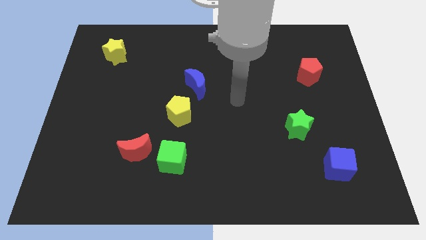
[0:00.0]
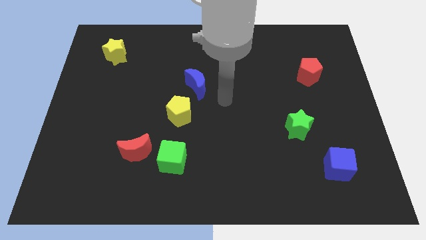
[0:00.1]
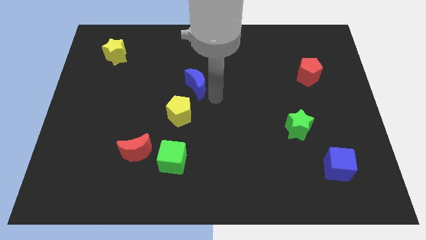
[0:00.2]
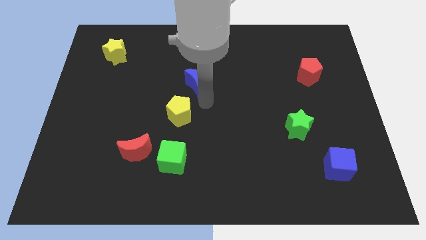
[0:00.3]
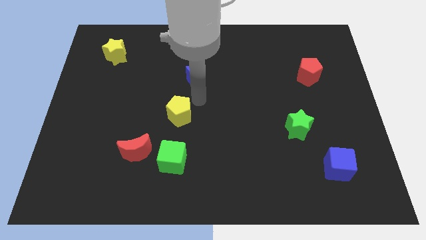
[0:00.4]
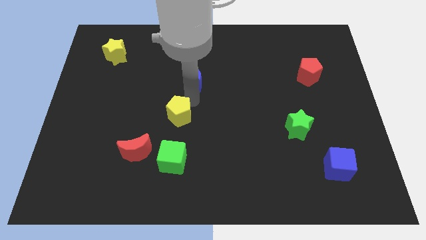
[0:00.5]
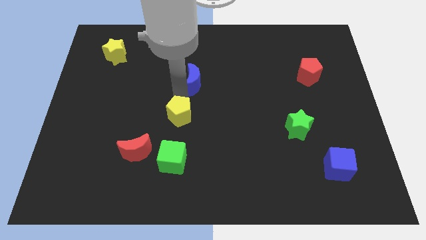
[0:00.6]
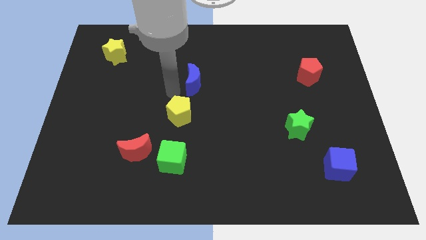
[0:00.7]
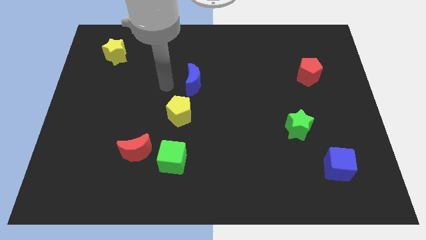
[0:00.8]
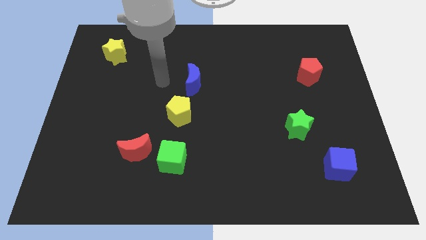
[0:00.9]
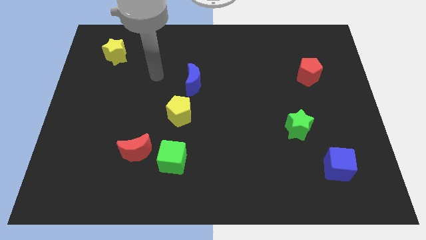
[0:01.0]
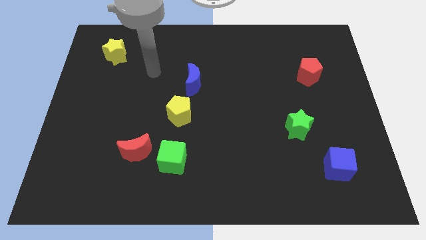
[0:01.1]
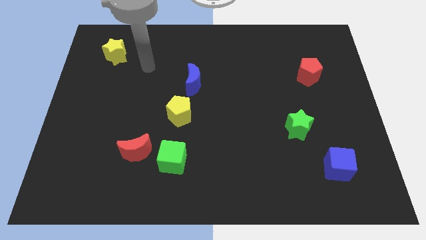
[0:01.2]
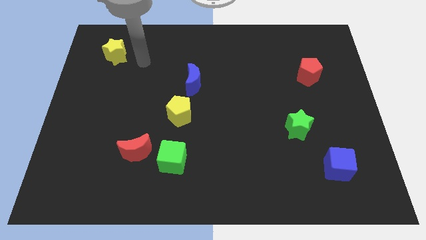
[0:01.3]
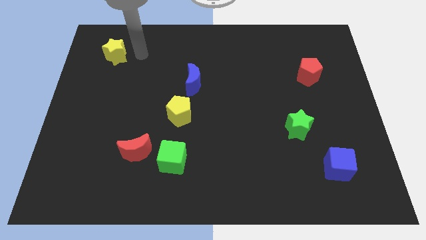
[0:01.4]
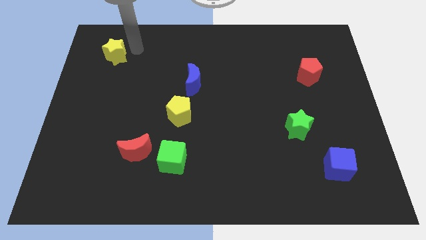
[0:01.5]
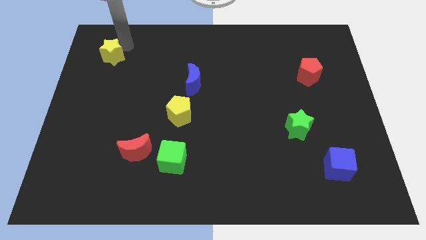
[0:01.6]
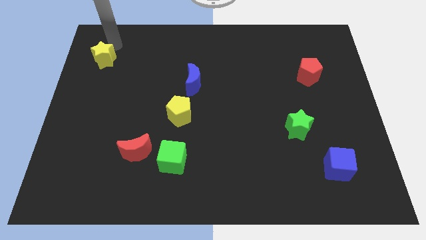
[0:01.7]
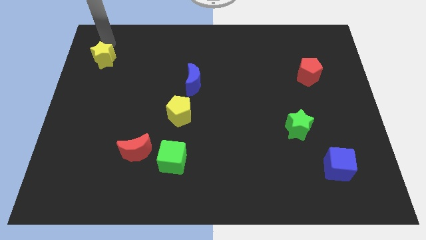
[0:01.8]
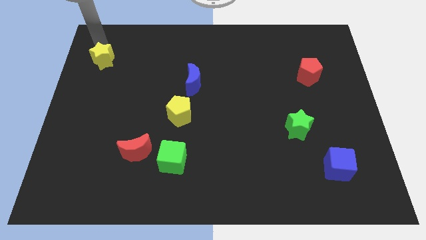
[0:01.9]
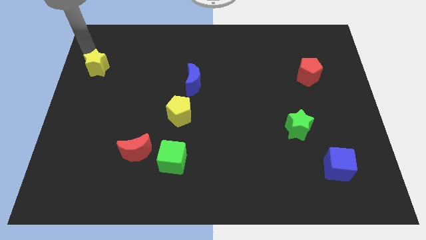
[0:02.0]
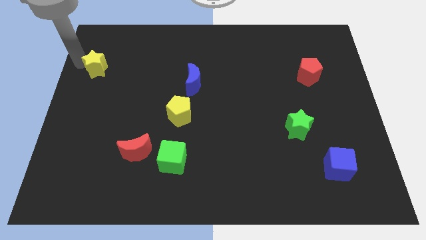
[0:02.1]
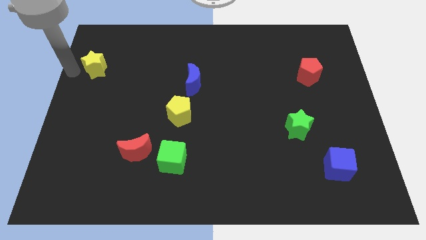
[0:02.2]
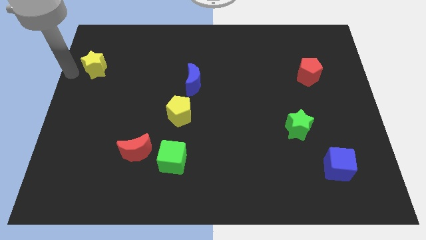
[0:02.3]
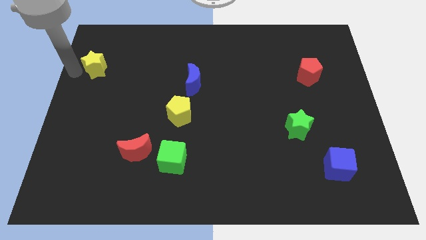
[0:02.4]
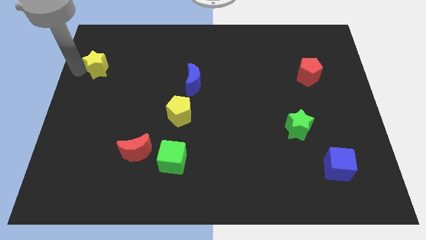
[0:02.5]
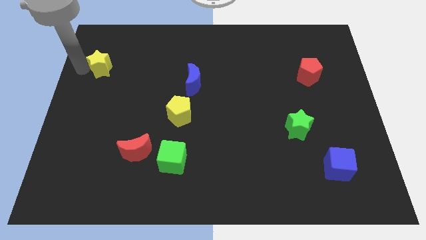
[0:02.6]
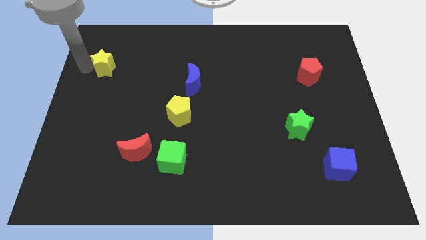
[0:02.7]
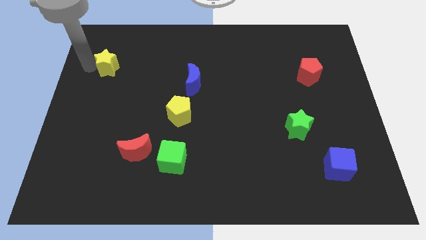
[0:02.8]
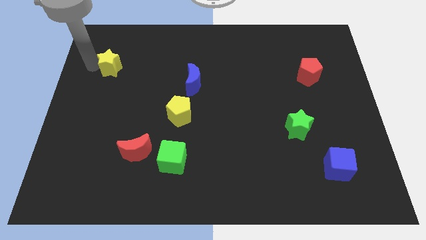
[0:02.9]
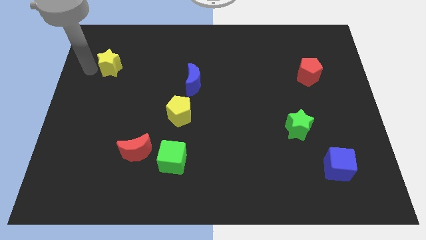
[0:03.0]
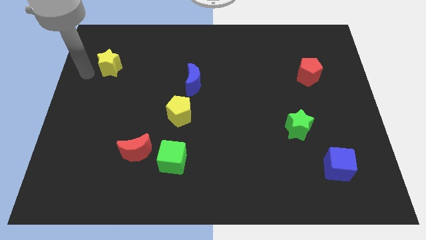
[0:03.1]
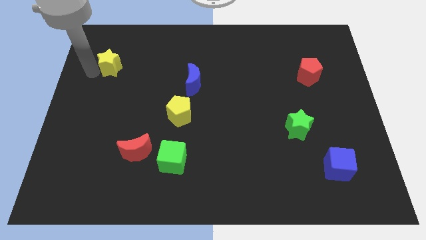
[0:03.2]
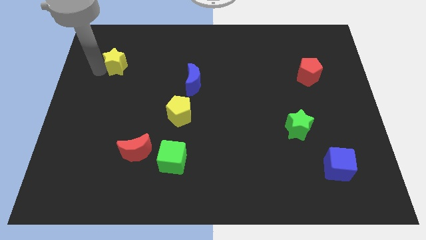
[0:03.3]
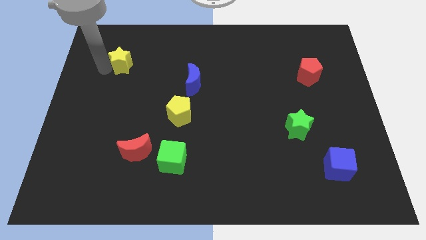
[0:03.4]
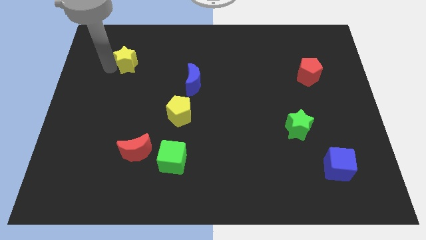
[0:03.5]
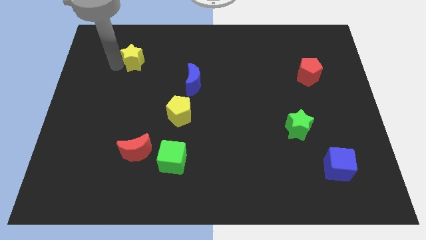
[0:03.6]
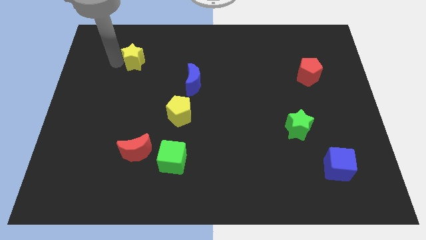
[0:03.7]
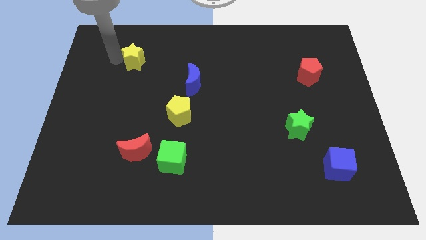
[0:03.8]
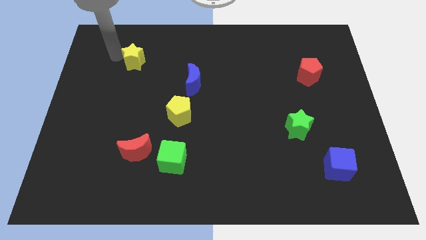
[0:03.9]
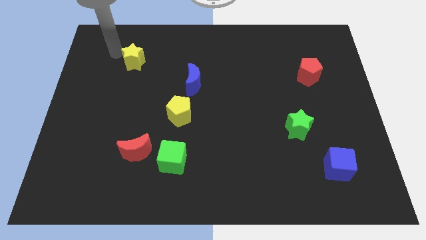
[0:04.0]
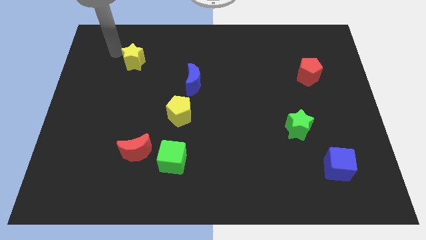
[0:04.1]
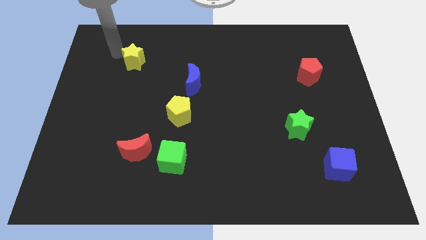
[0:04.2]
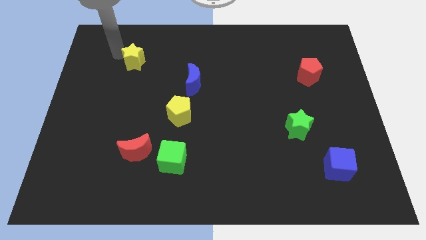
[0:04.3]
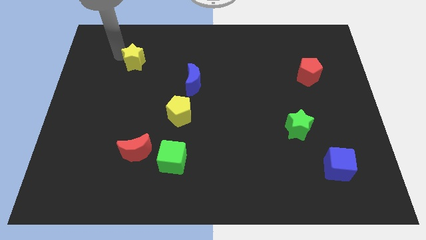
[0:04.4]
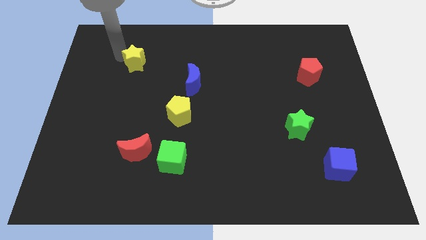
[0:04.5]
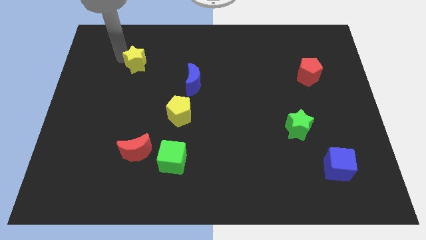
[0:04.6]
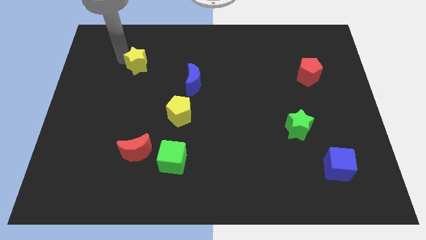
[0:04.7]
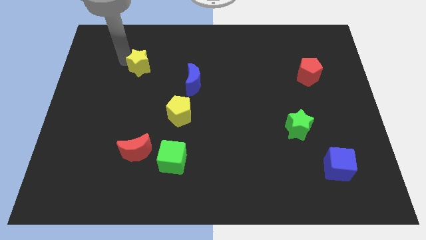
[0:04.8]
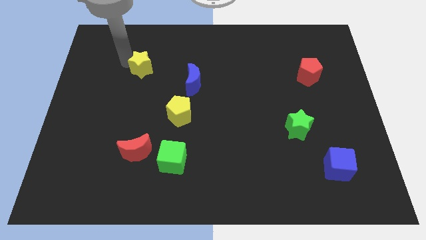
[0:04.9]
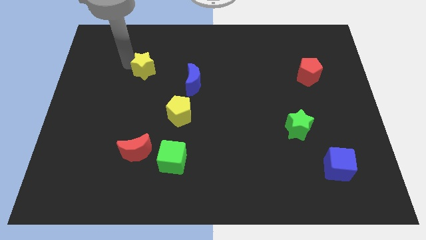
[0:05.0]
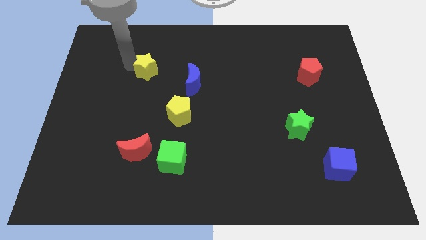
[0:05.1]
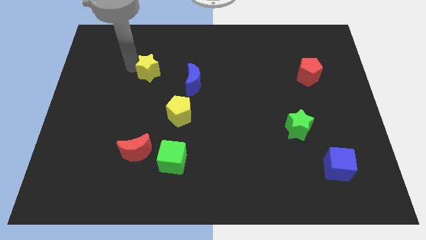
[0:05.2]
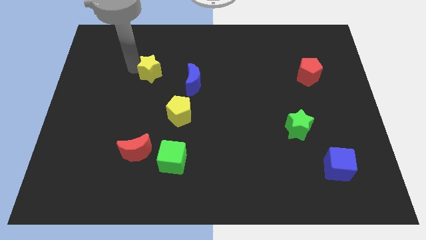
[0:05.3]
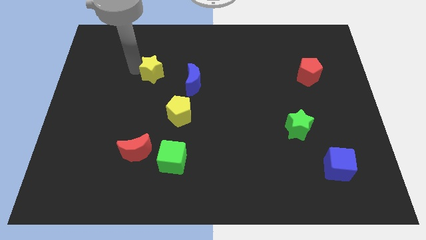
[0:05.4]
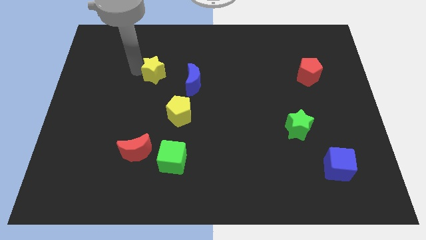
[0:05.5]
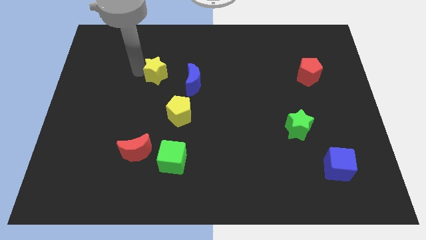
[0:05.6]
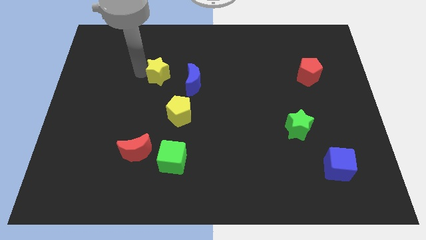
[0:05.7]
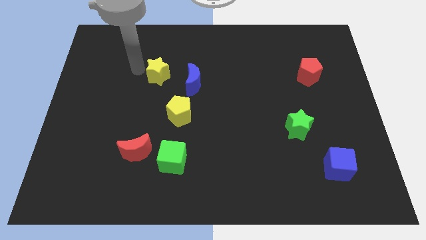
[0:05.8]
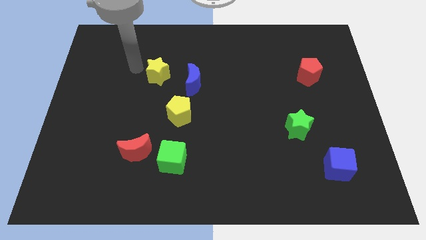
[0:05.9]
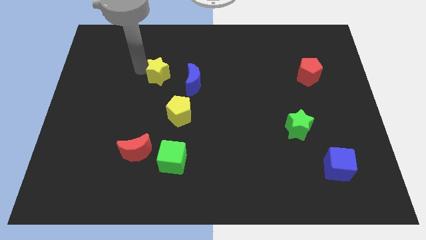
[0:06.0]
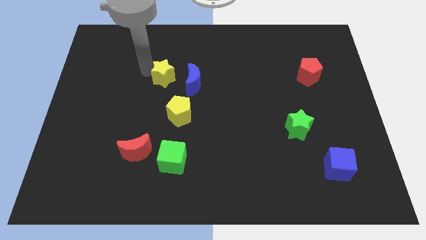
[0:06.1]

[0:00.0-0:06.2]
slide the yellow star to the top of the yellow pentagon
